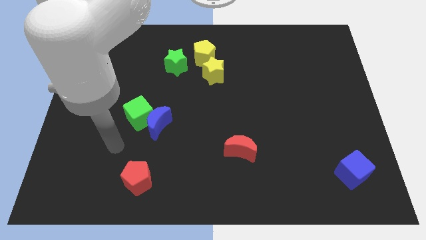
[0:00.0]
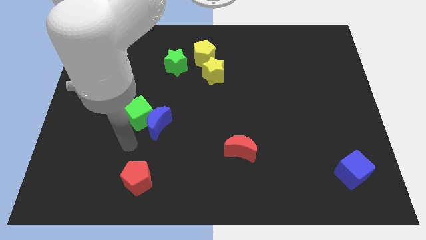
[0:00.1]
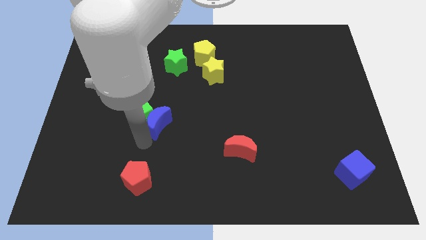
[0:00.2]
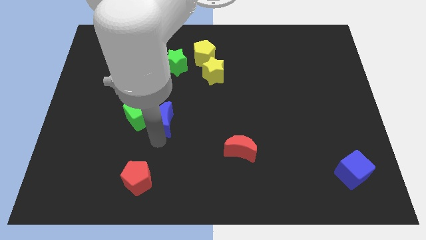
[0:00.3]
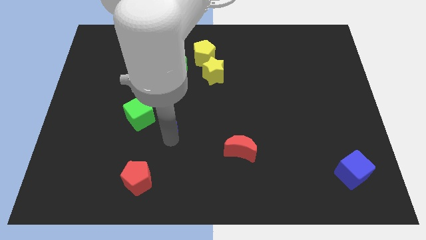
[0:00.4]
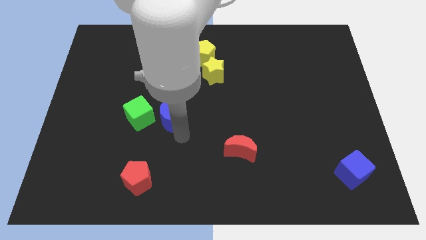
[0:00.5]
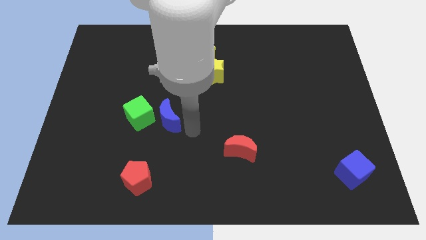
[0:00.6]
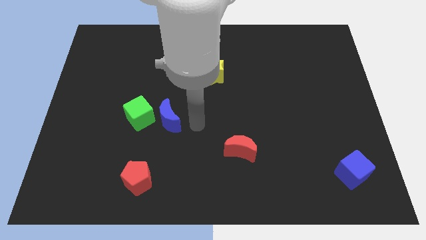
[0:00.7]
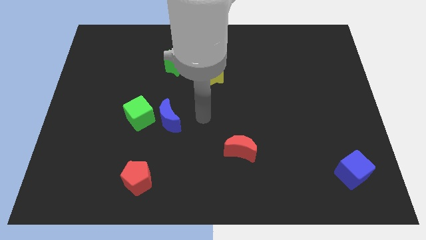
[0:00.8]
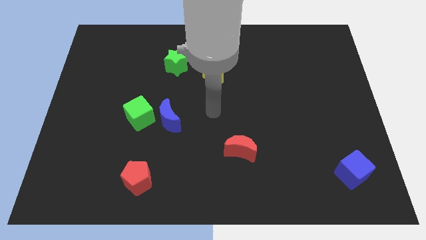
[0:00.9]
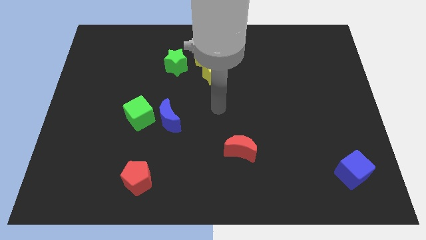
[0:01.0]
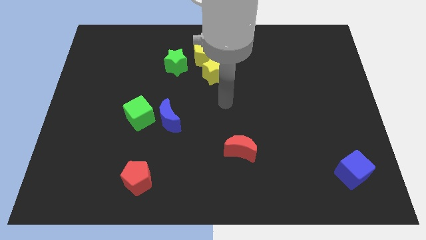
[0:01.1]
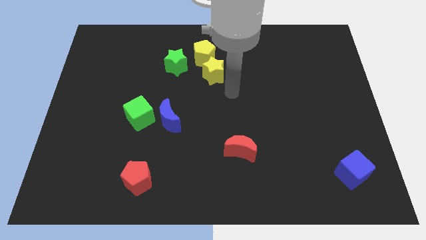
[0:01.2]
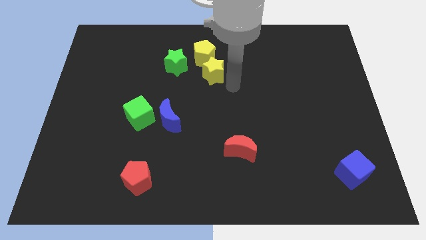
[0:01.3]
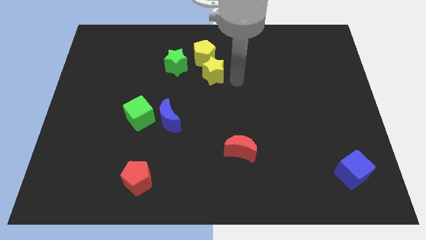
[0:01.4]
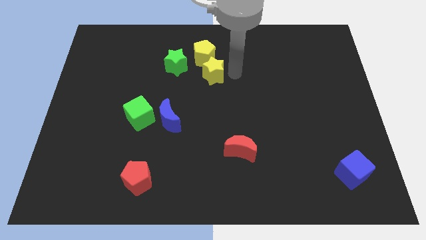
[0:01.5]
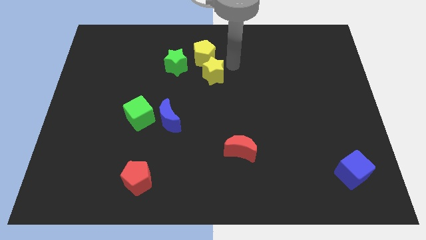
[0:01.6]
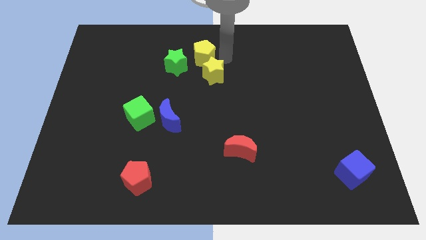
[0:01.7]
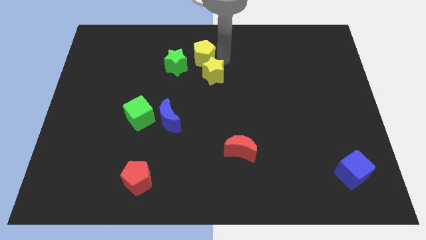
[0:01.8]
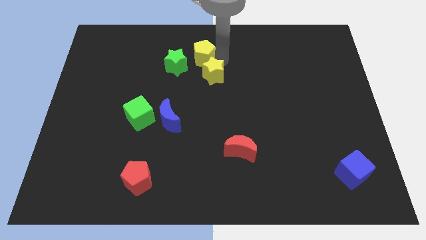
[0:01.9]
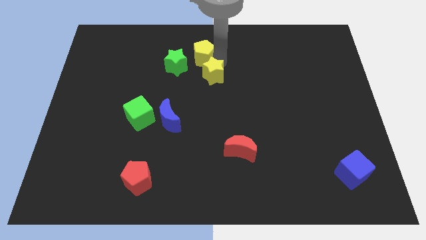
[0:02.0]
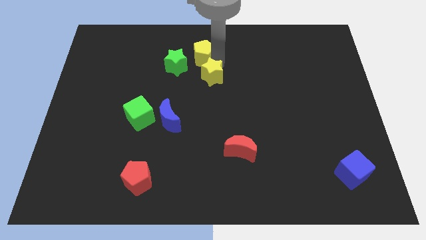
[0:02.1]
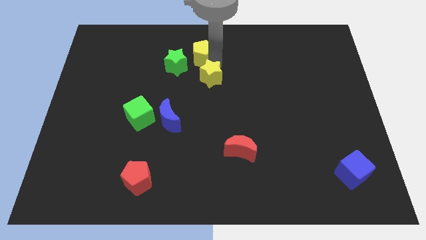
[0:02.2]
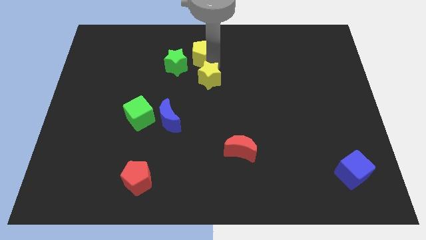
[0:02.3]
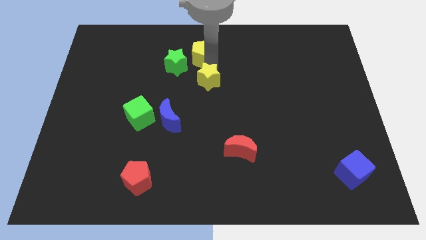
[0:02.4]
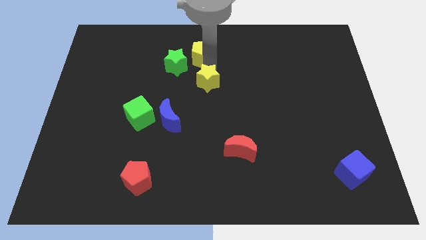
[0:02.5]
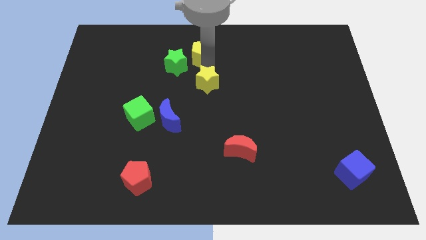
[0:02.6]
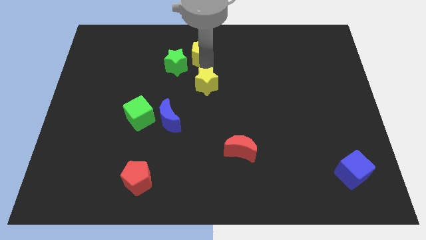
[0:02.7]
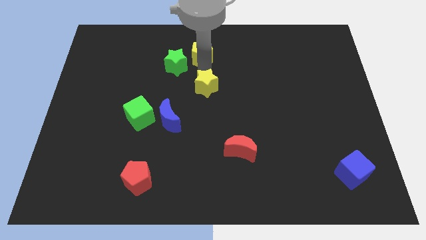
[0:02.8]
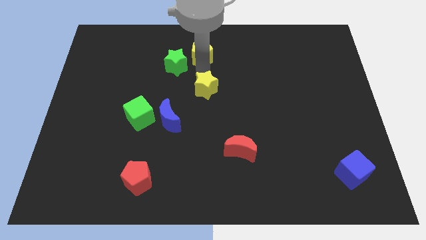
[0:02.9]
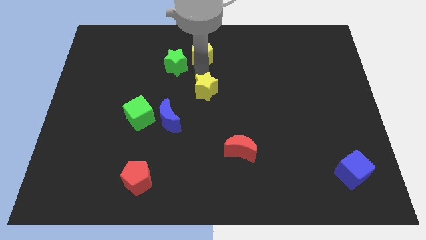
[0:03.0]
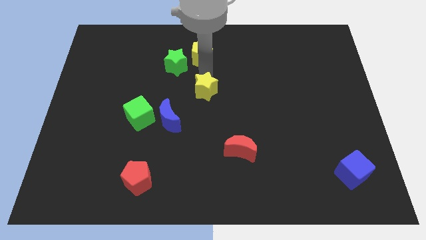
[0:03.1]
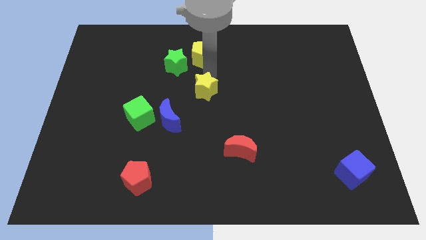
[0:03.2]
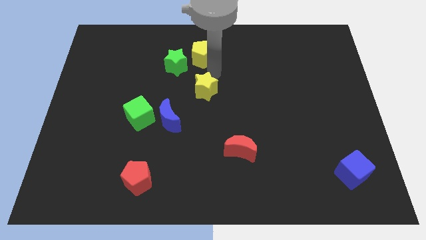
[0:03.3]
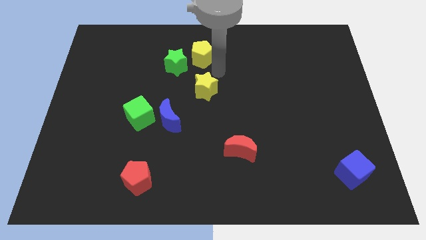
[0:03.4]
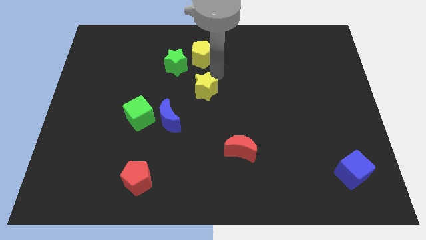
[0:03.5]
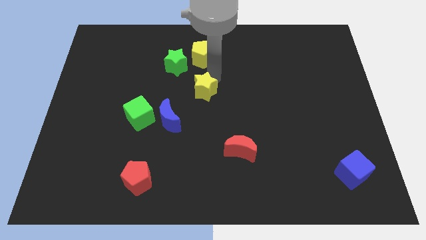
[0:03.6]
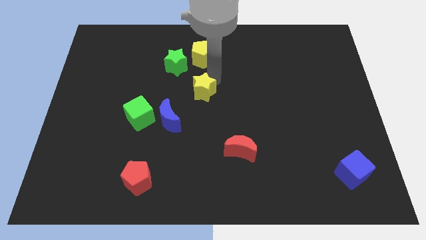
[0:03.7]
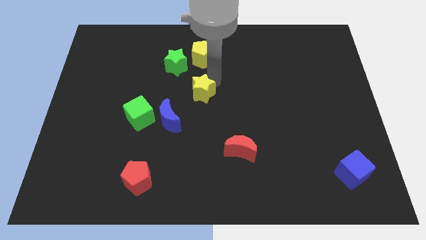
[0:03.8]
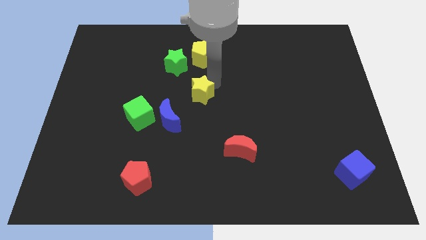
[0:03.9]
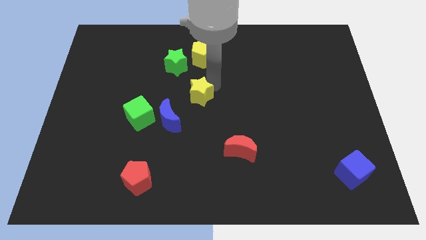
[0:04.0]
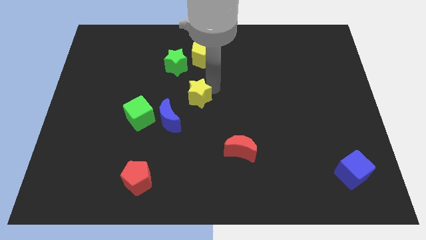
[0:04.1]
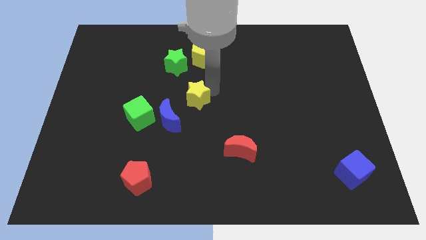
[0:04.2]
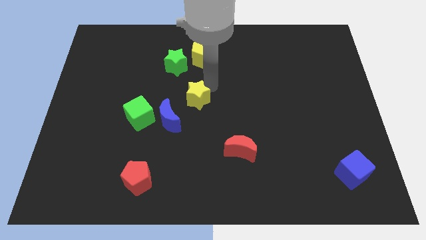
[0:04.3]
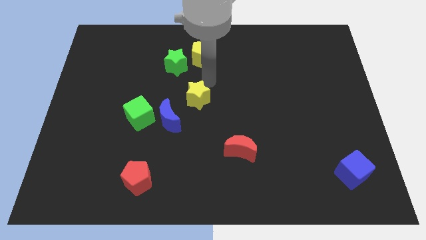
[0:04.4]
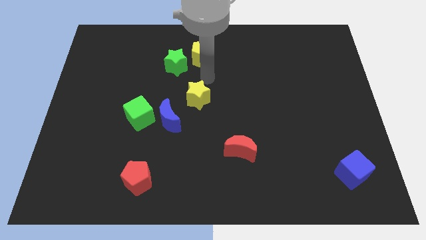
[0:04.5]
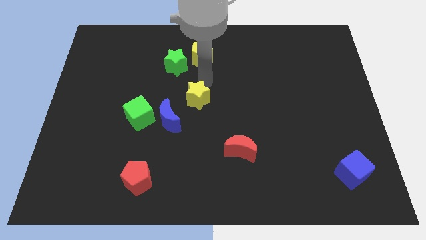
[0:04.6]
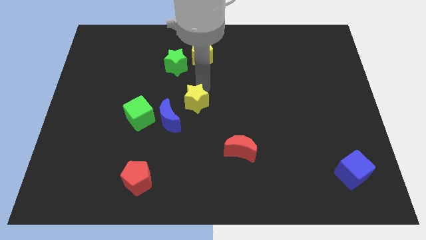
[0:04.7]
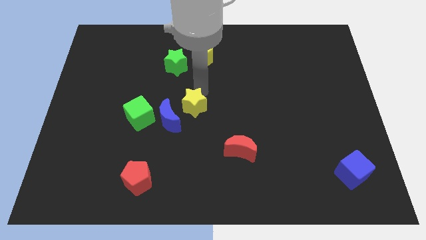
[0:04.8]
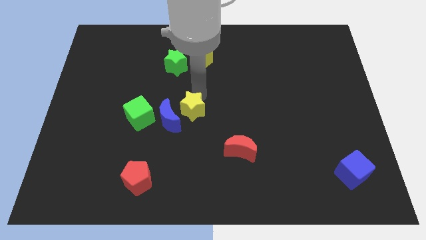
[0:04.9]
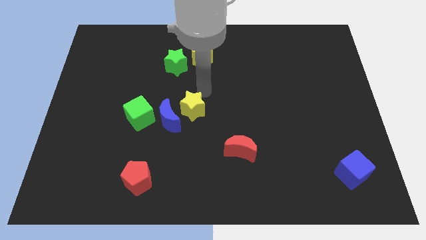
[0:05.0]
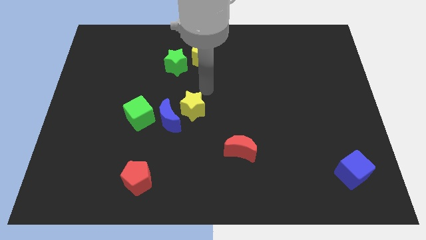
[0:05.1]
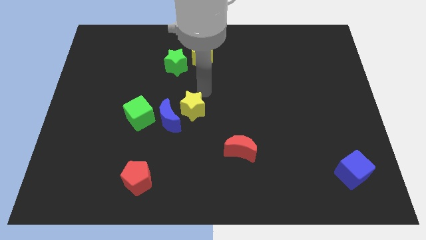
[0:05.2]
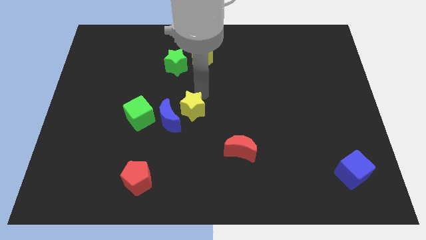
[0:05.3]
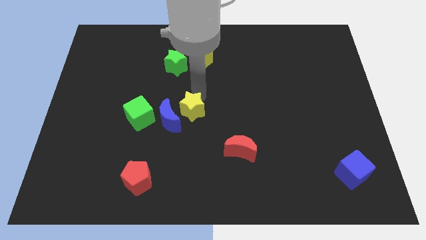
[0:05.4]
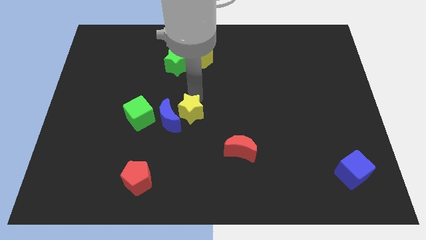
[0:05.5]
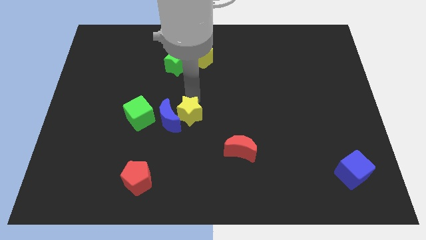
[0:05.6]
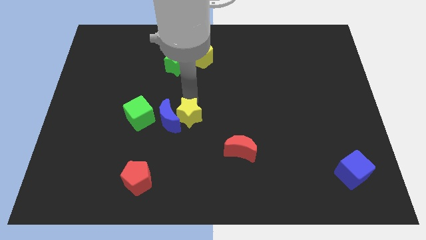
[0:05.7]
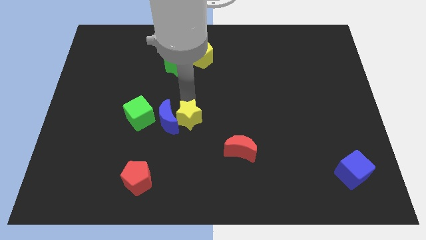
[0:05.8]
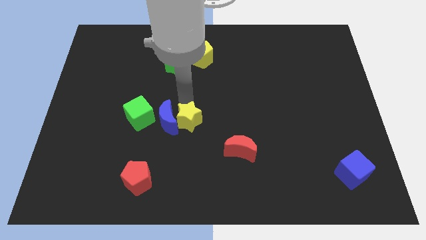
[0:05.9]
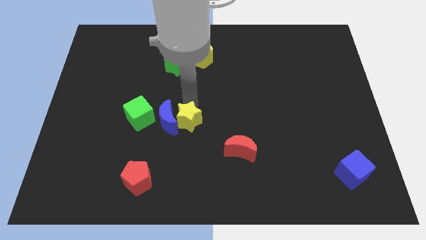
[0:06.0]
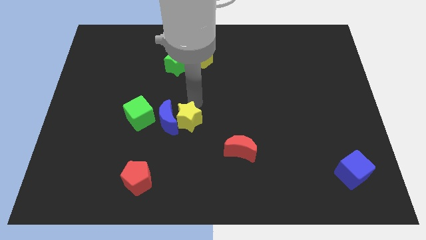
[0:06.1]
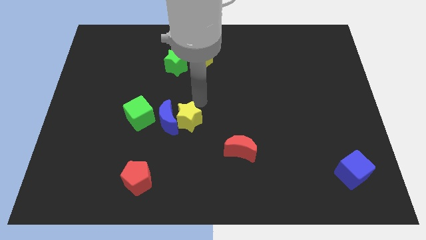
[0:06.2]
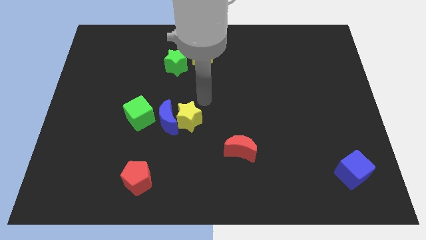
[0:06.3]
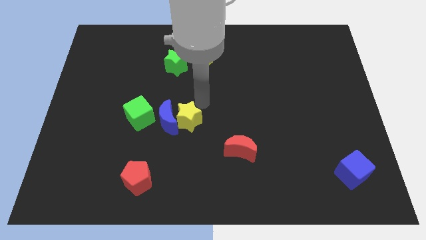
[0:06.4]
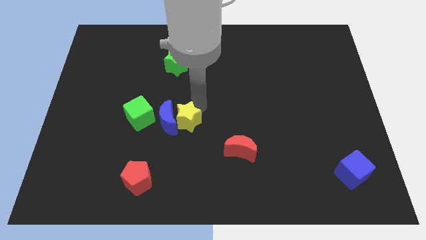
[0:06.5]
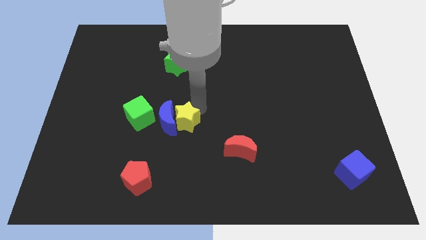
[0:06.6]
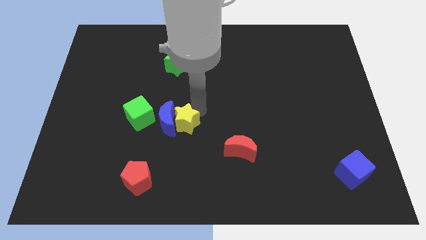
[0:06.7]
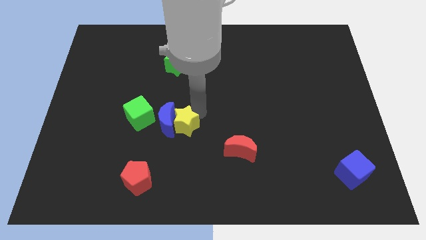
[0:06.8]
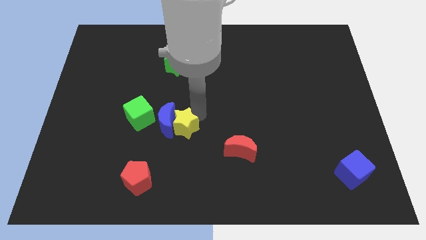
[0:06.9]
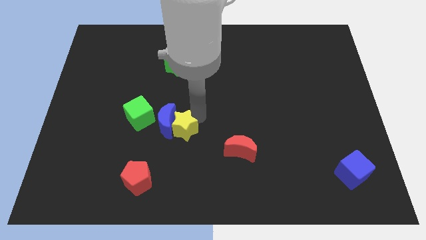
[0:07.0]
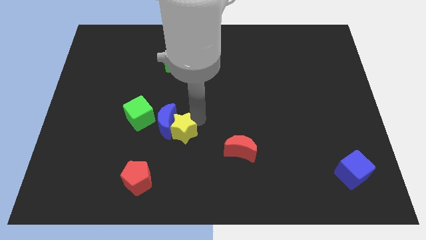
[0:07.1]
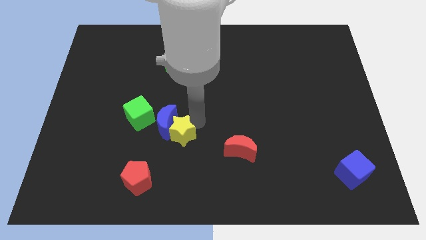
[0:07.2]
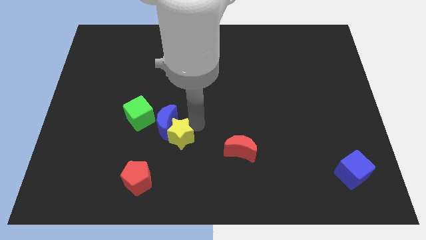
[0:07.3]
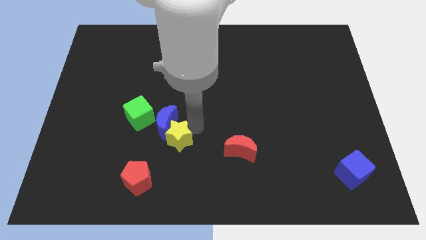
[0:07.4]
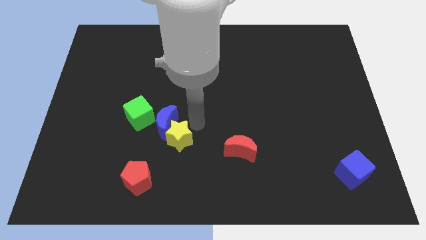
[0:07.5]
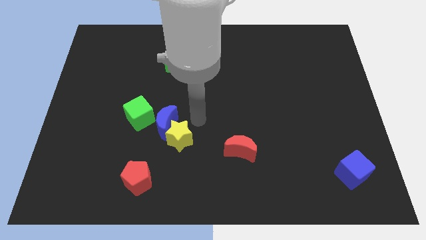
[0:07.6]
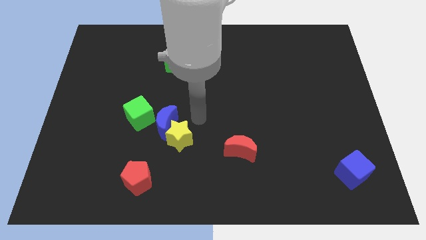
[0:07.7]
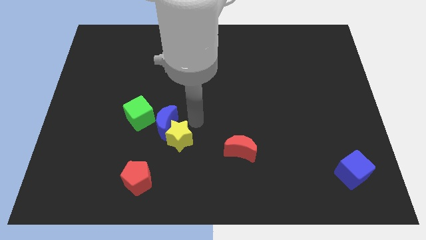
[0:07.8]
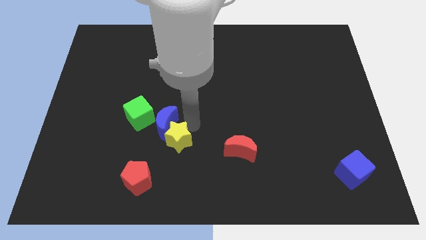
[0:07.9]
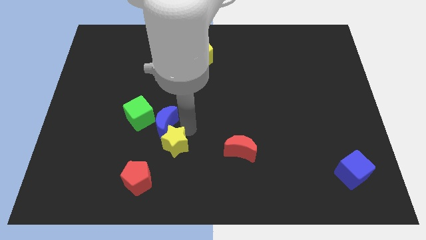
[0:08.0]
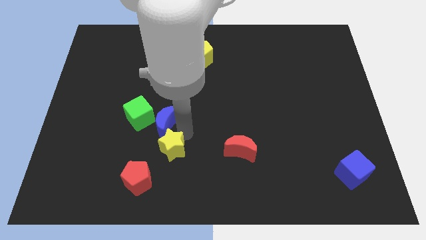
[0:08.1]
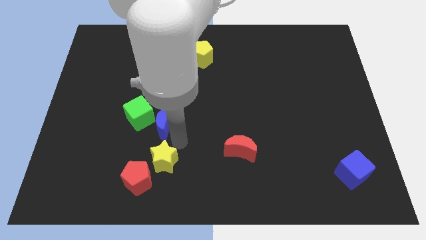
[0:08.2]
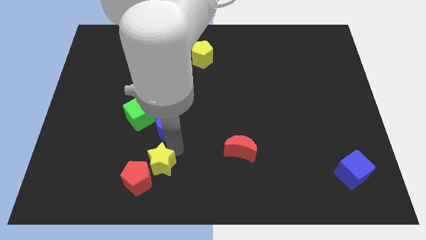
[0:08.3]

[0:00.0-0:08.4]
push the yellow star to the red pentagon
